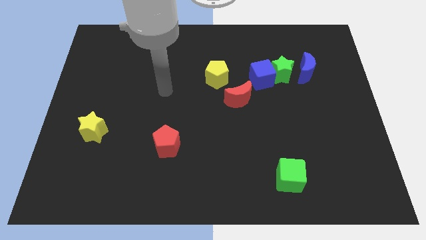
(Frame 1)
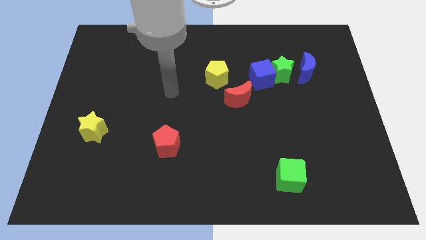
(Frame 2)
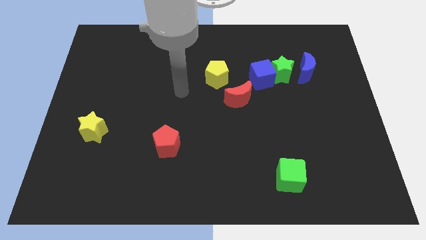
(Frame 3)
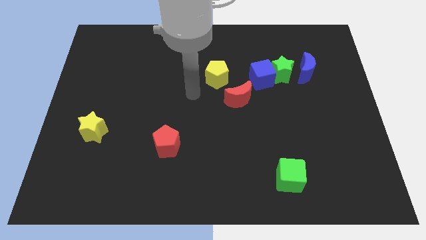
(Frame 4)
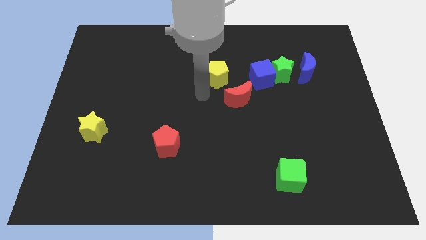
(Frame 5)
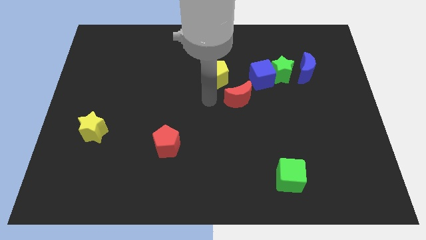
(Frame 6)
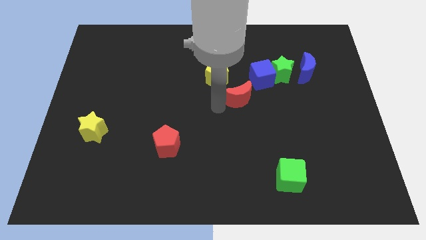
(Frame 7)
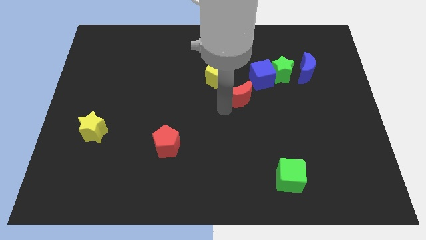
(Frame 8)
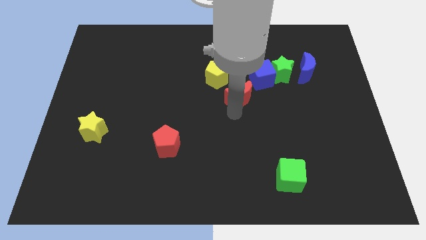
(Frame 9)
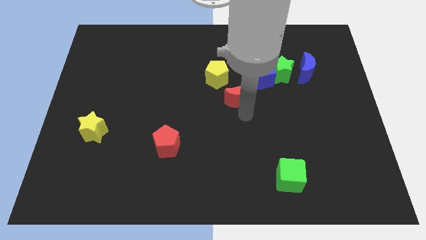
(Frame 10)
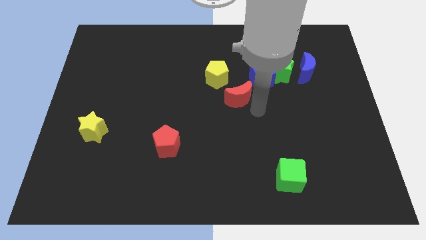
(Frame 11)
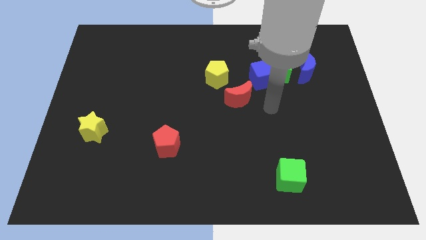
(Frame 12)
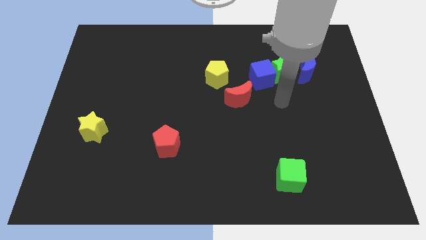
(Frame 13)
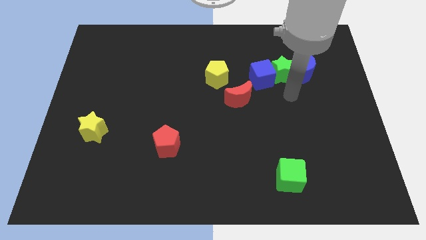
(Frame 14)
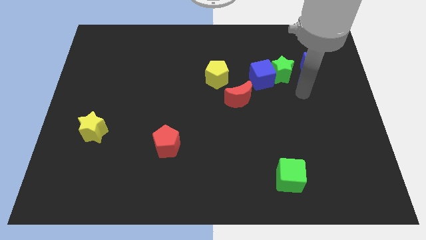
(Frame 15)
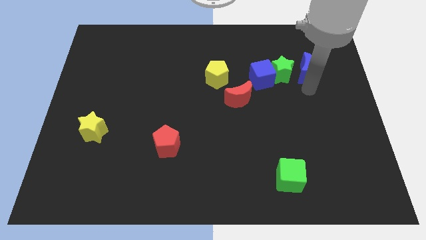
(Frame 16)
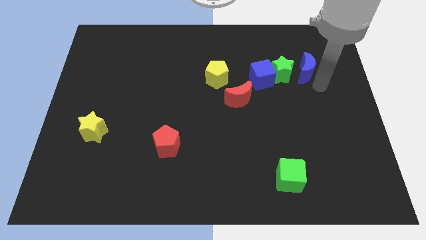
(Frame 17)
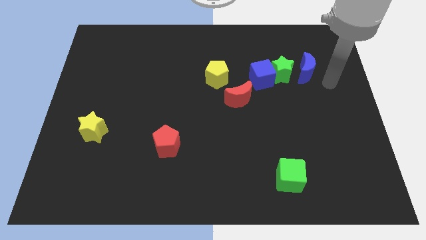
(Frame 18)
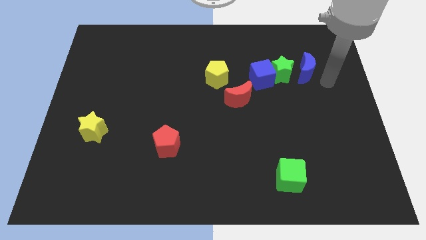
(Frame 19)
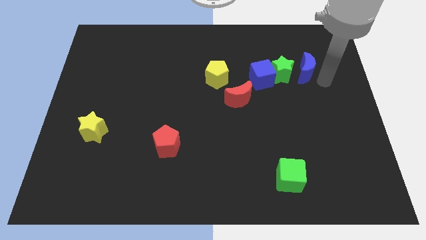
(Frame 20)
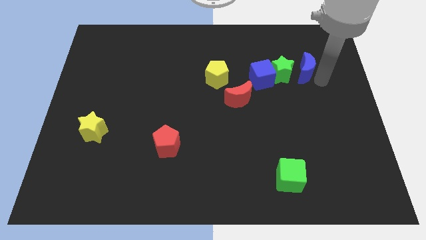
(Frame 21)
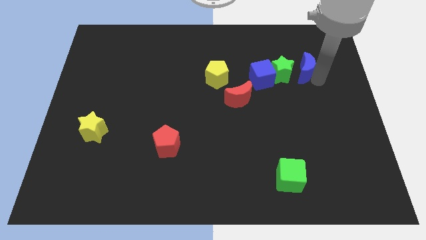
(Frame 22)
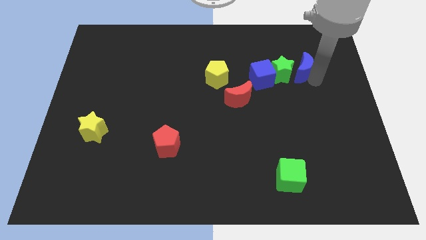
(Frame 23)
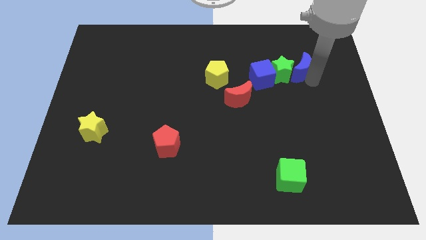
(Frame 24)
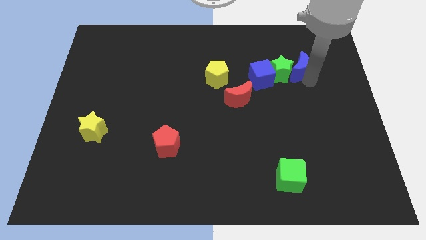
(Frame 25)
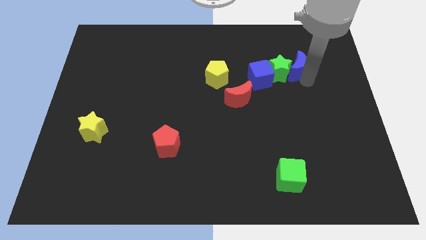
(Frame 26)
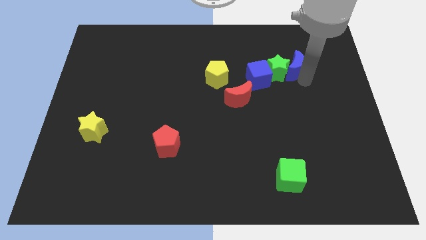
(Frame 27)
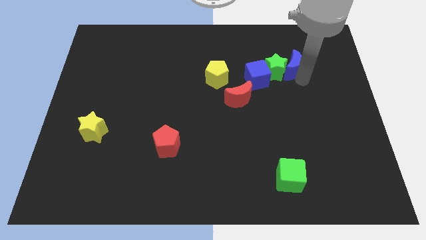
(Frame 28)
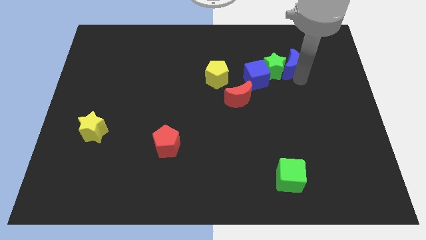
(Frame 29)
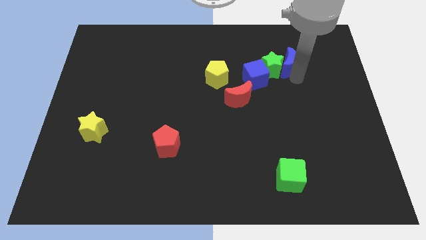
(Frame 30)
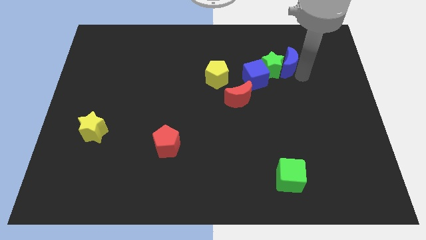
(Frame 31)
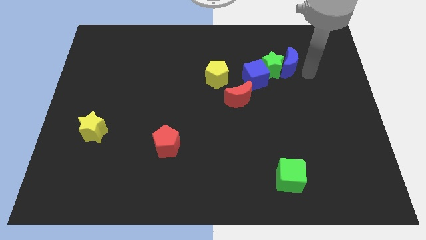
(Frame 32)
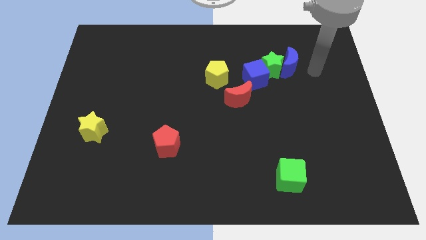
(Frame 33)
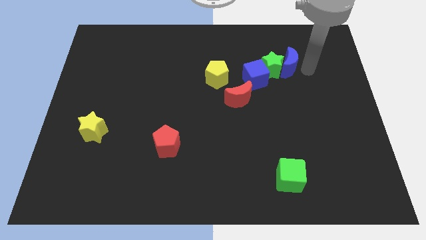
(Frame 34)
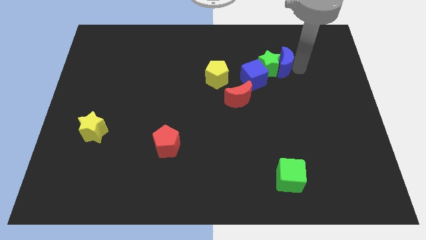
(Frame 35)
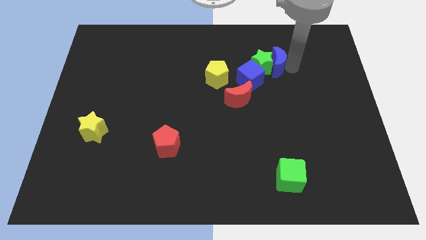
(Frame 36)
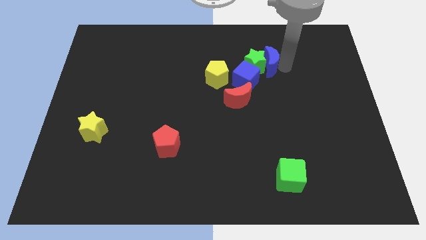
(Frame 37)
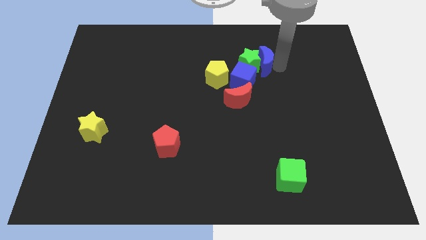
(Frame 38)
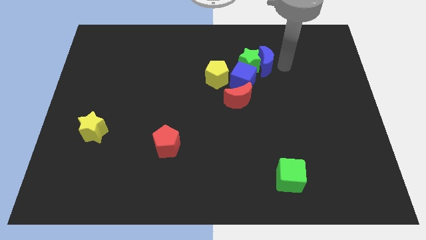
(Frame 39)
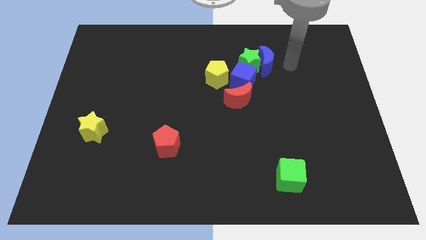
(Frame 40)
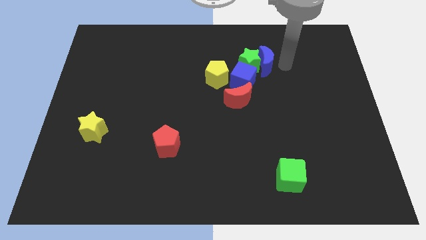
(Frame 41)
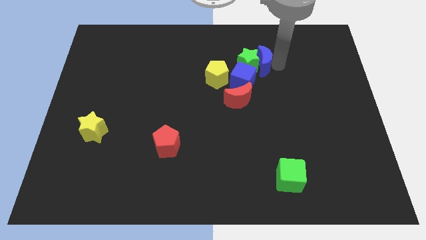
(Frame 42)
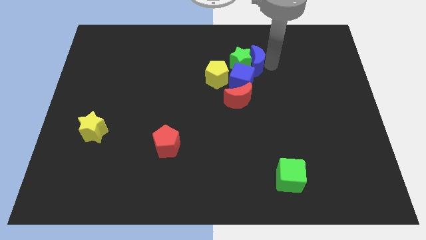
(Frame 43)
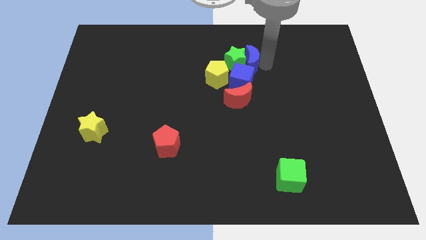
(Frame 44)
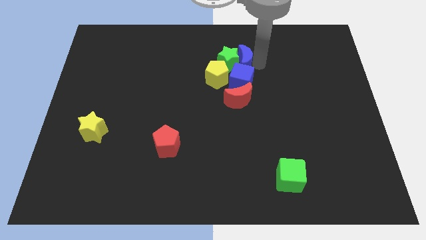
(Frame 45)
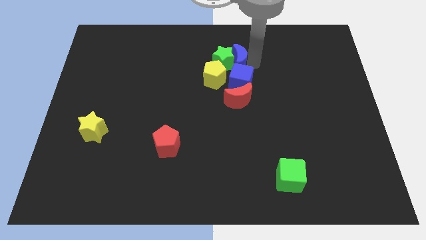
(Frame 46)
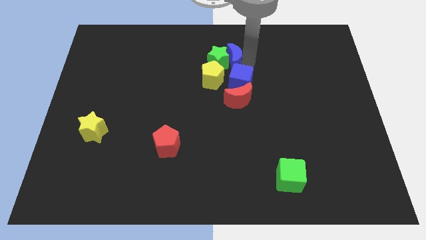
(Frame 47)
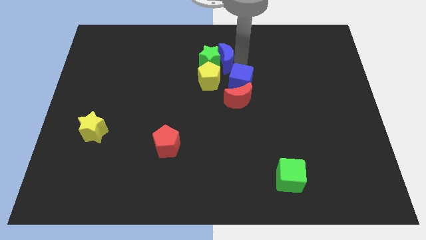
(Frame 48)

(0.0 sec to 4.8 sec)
push the blue moon left

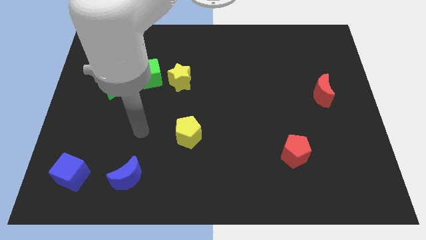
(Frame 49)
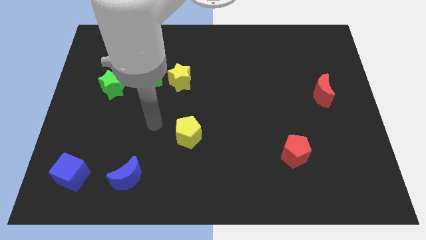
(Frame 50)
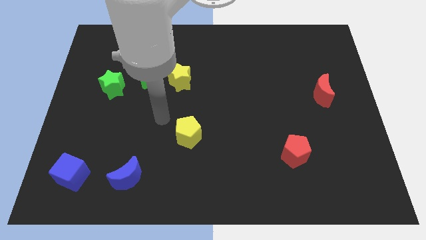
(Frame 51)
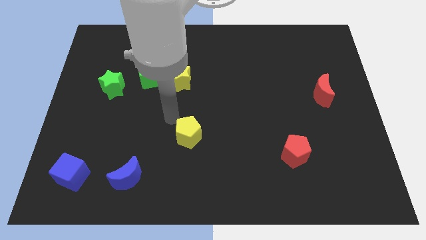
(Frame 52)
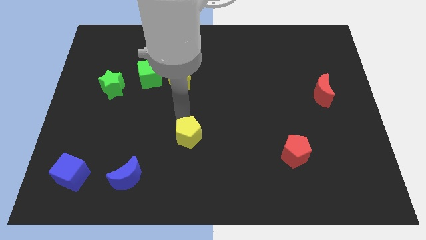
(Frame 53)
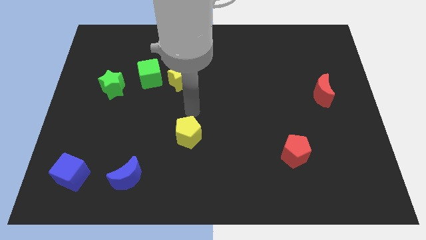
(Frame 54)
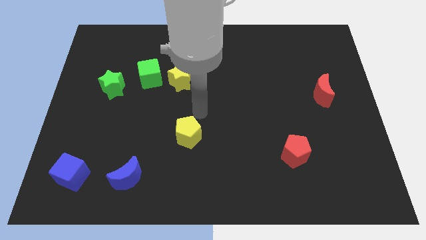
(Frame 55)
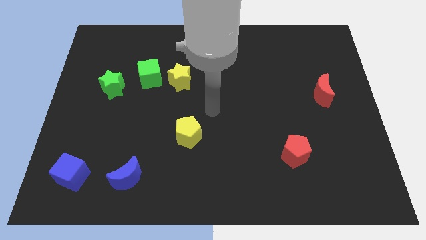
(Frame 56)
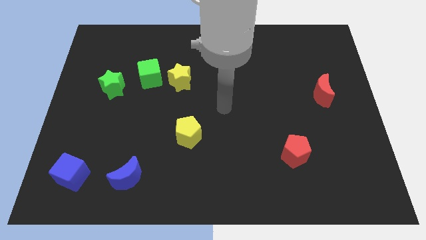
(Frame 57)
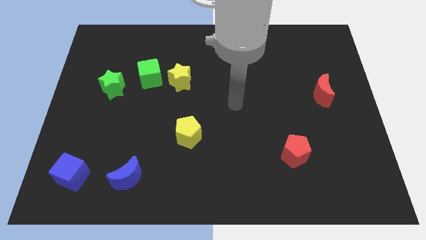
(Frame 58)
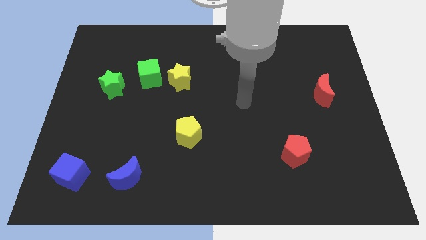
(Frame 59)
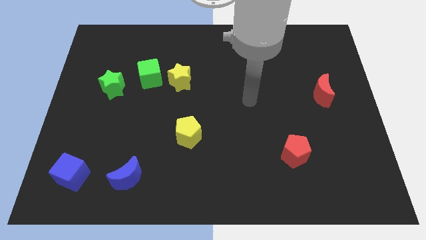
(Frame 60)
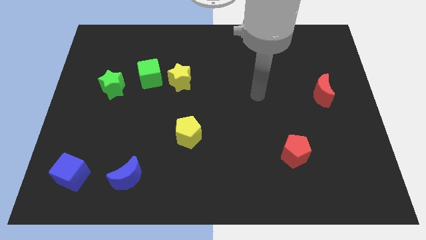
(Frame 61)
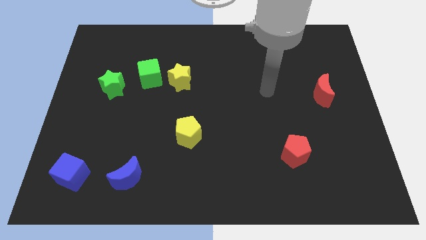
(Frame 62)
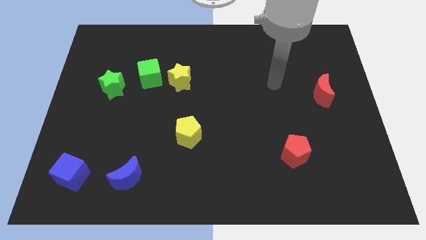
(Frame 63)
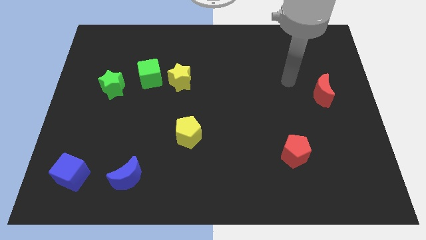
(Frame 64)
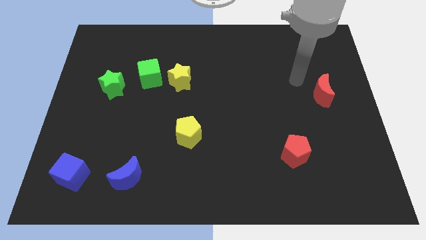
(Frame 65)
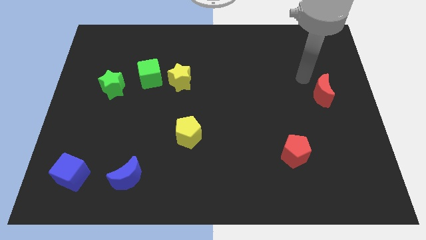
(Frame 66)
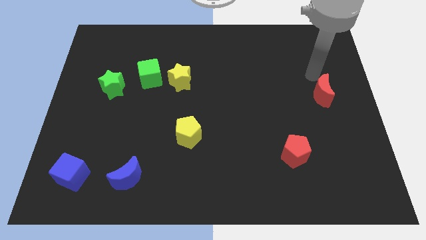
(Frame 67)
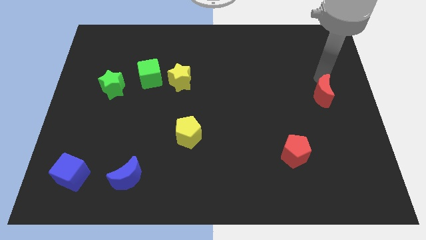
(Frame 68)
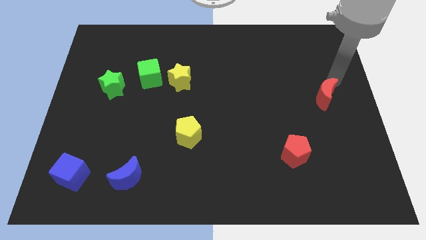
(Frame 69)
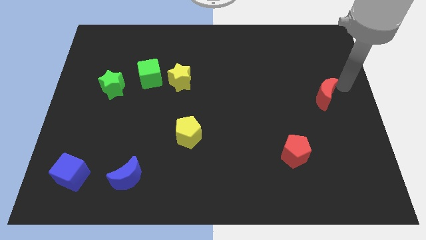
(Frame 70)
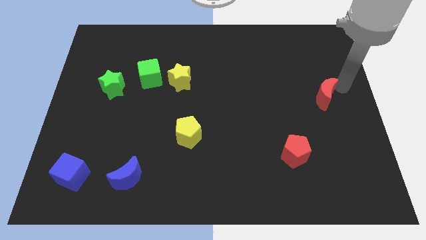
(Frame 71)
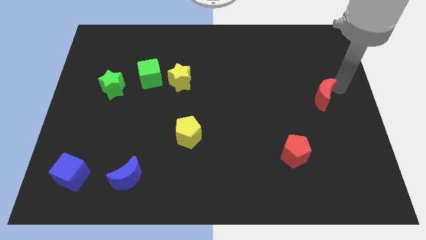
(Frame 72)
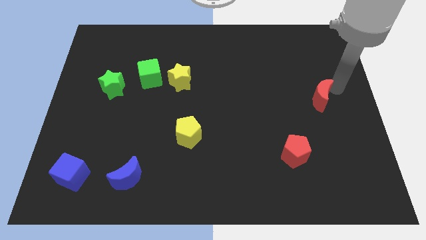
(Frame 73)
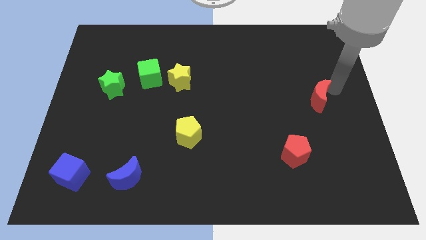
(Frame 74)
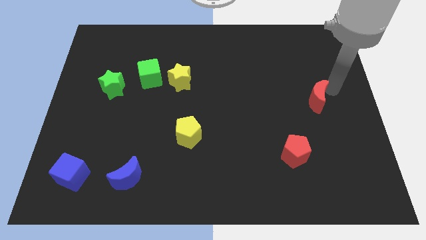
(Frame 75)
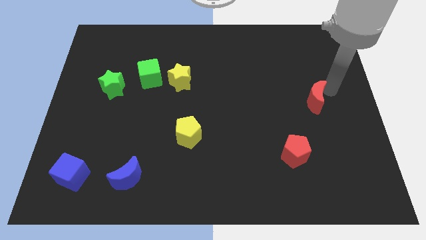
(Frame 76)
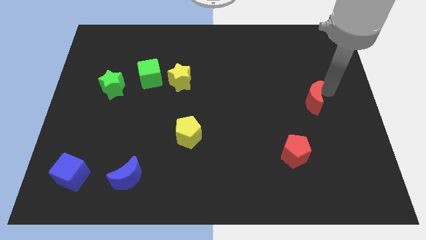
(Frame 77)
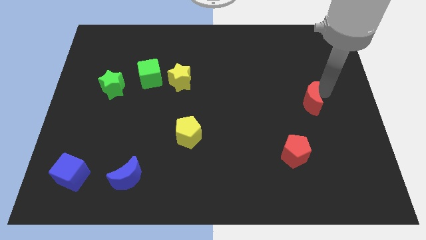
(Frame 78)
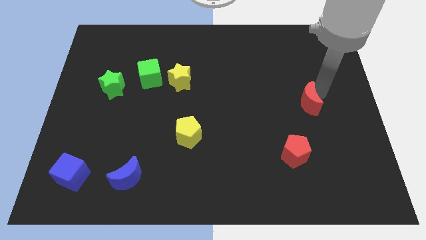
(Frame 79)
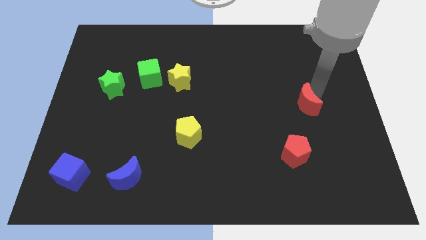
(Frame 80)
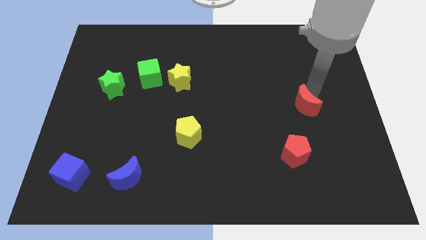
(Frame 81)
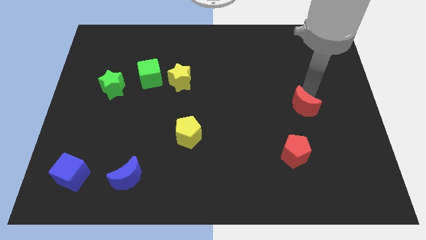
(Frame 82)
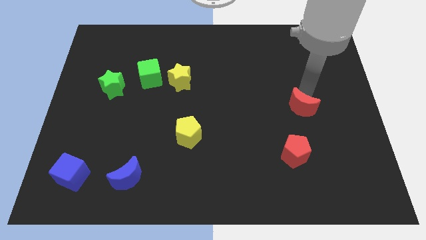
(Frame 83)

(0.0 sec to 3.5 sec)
push the red moon slightly downwards and to the left diagonally
